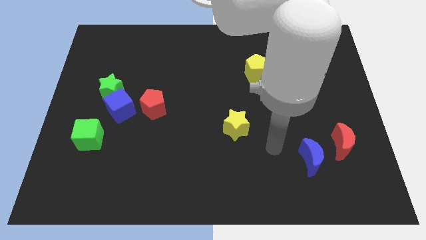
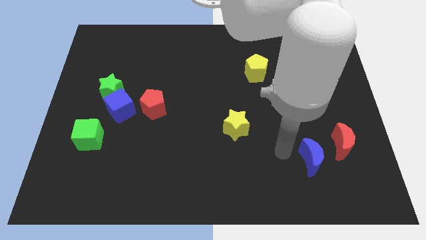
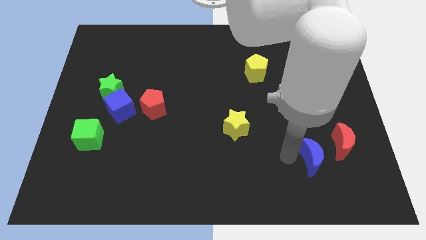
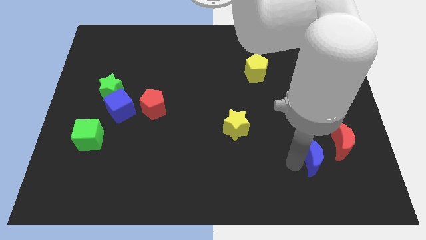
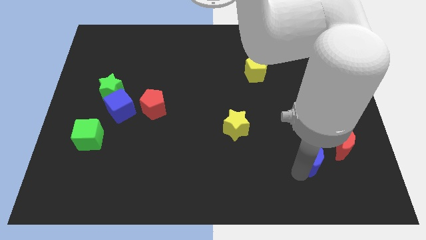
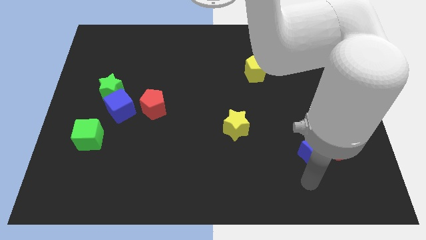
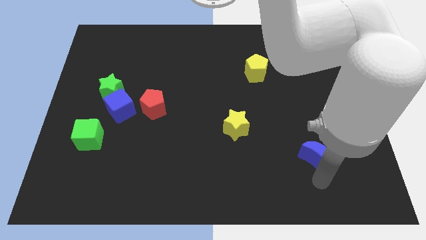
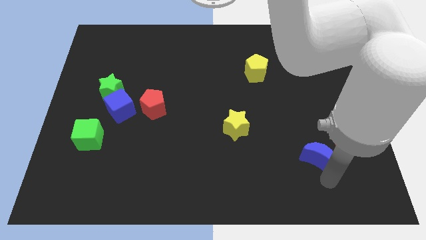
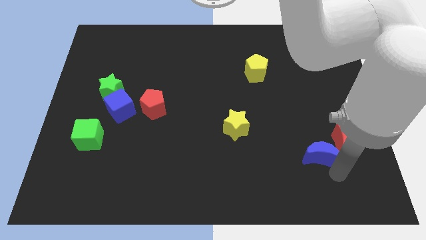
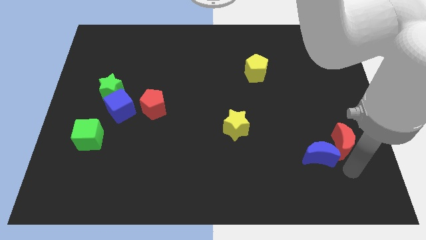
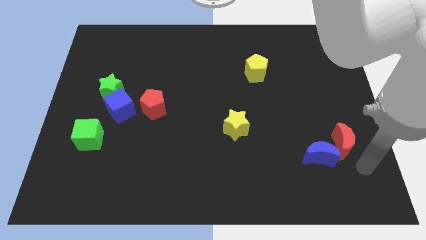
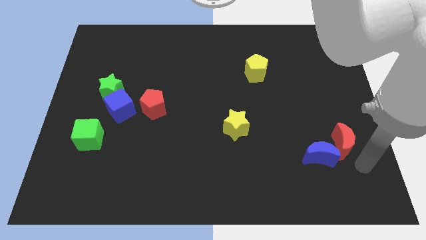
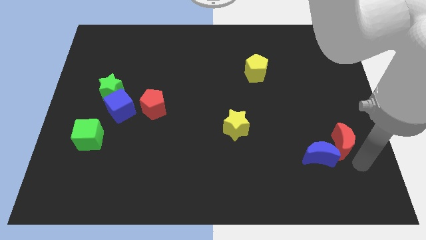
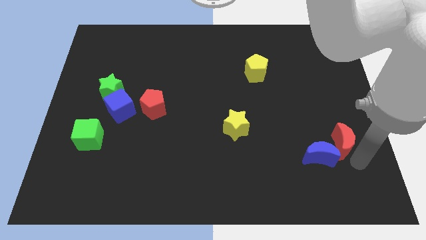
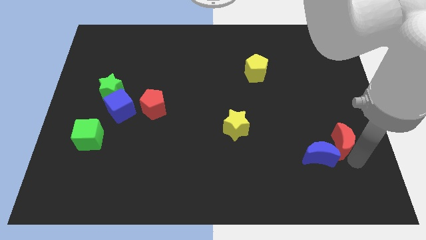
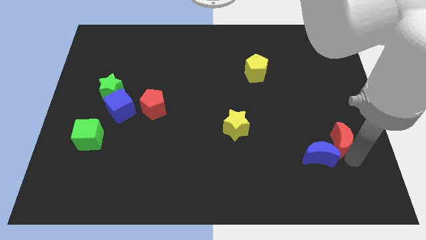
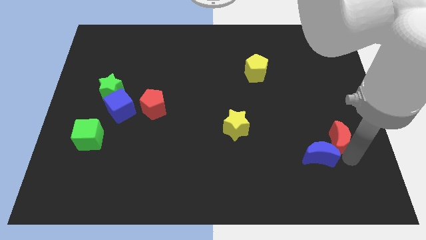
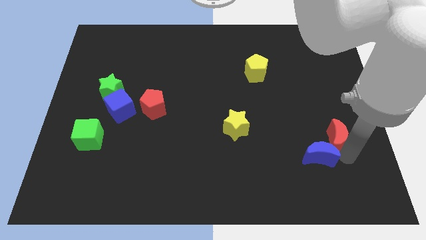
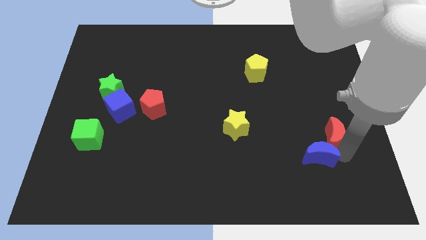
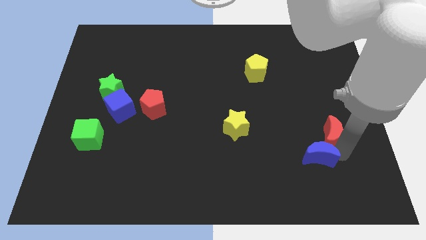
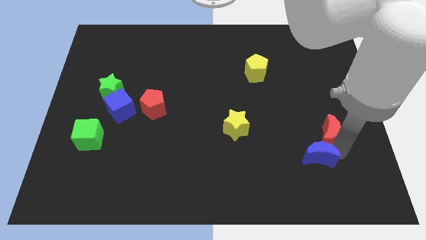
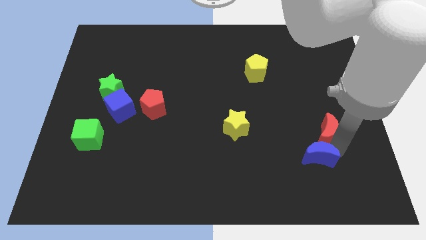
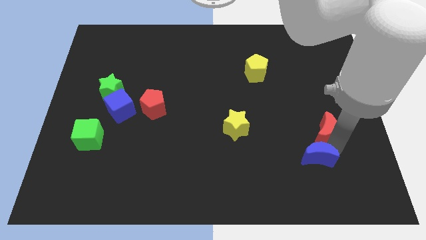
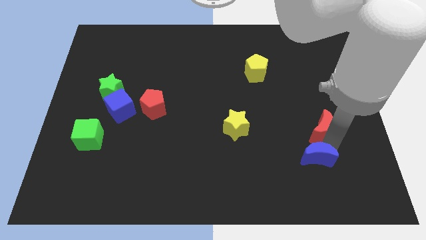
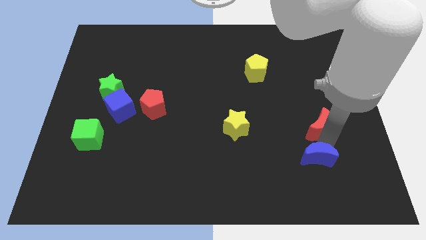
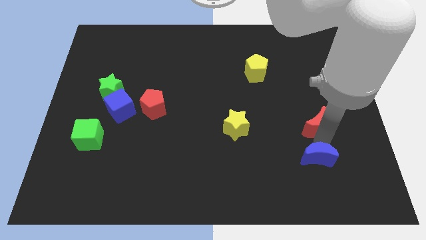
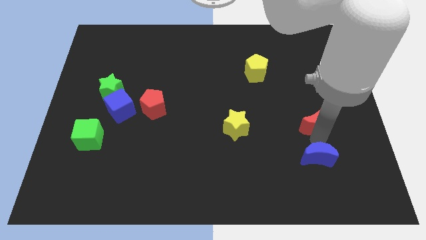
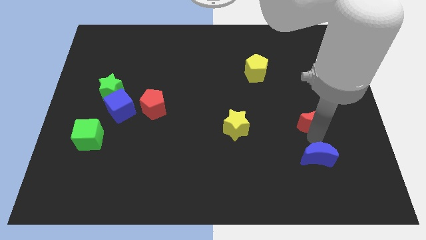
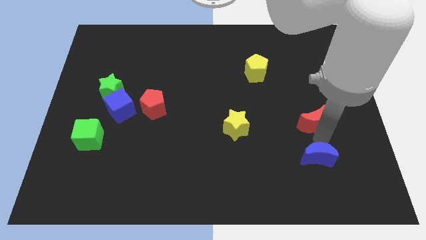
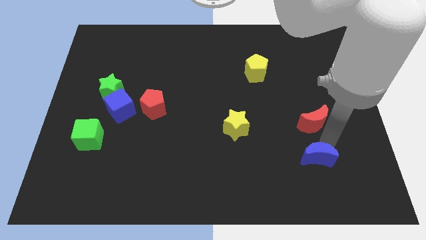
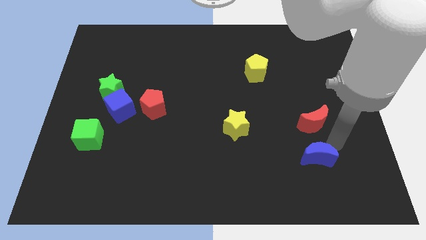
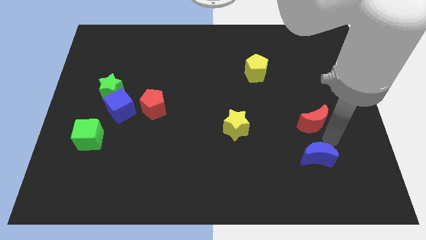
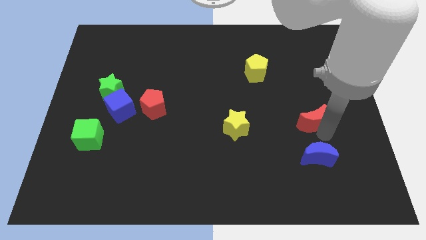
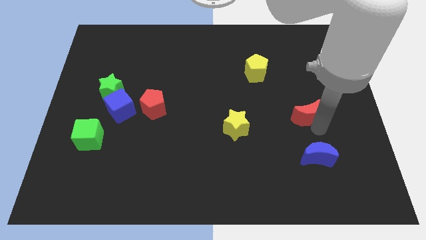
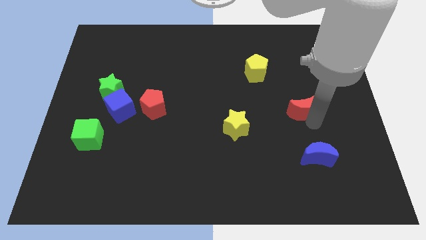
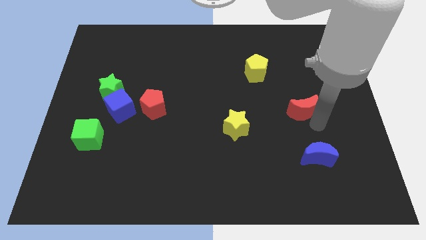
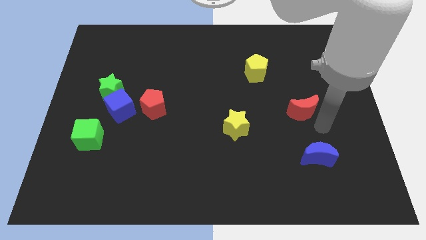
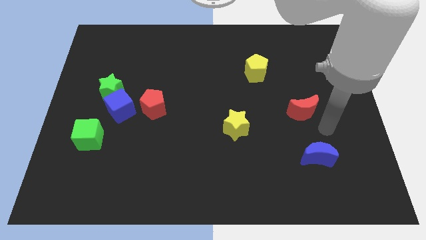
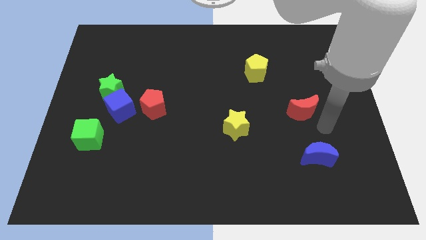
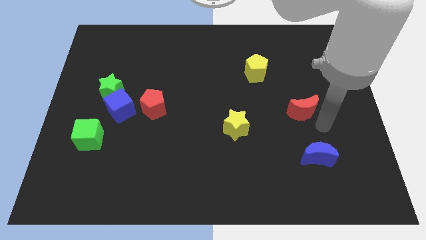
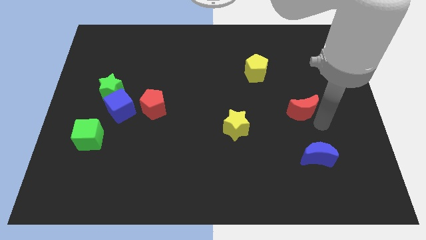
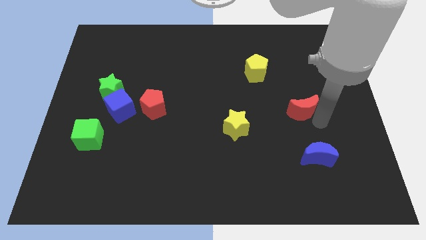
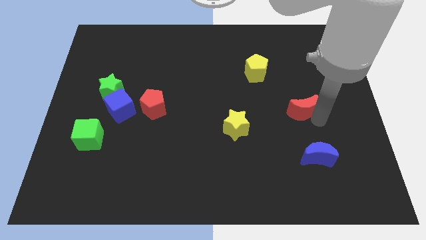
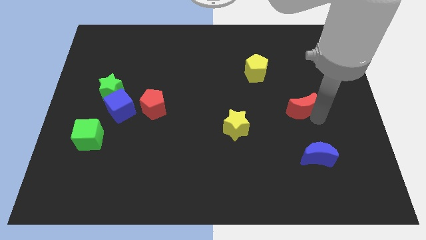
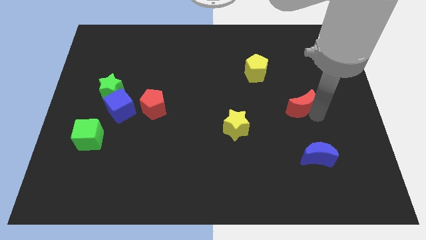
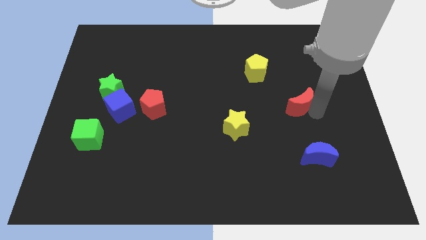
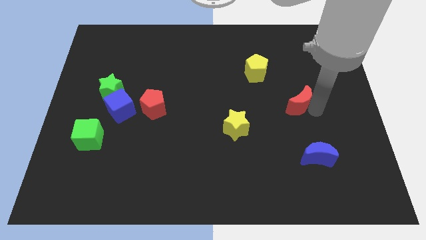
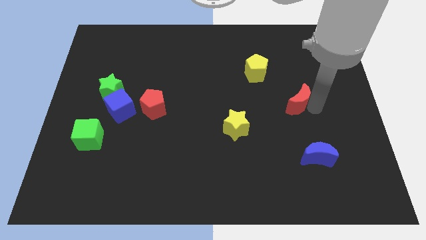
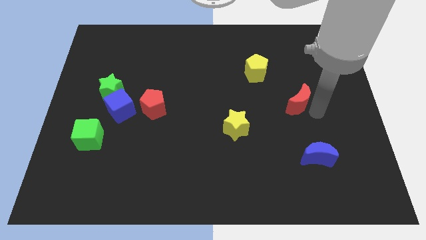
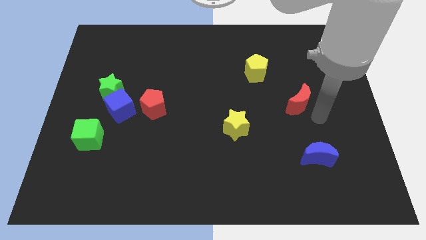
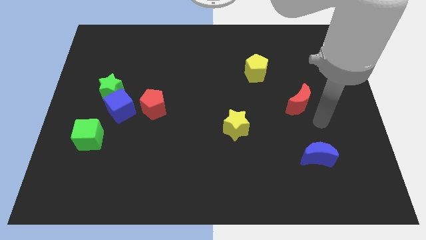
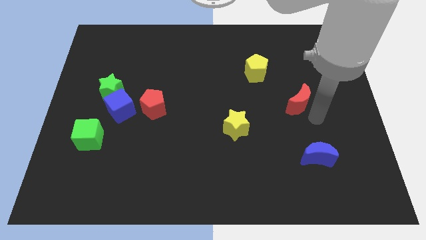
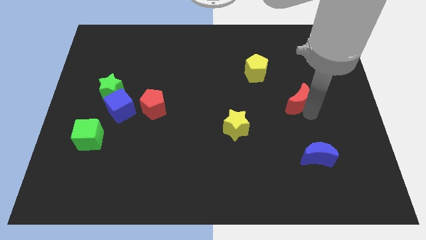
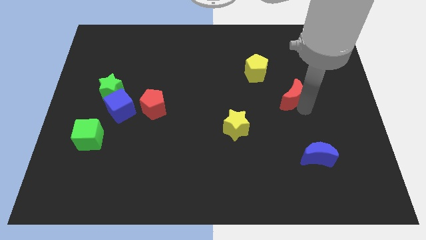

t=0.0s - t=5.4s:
put the red moon to the bottom right side of the yellow pentagon

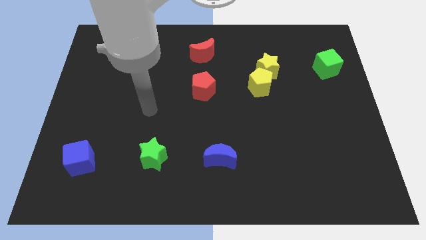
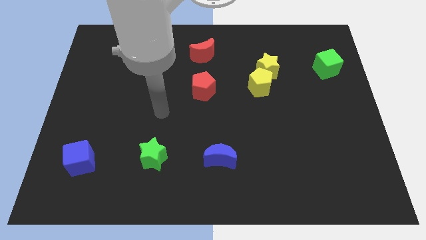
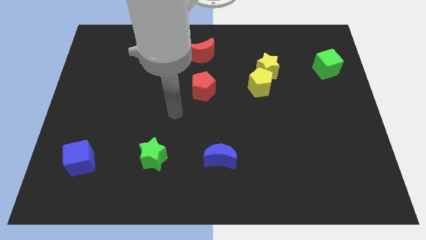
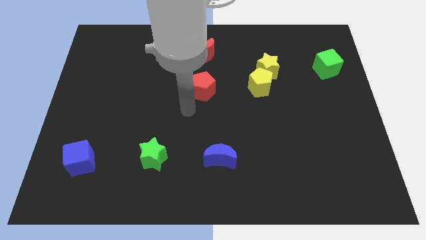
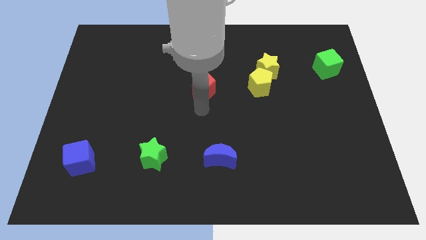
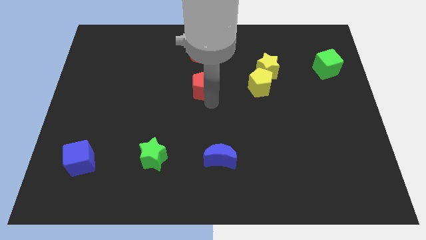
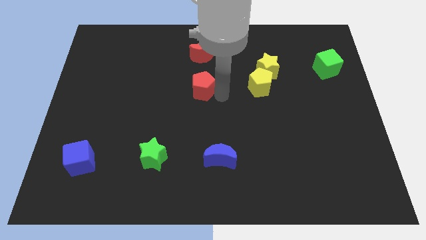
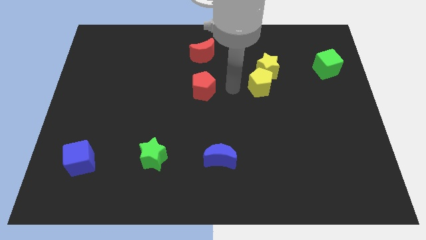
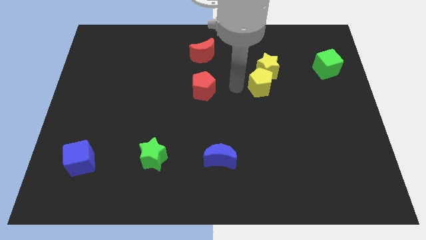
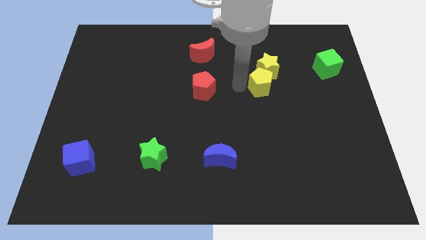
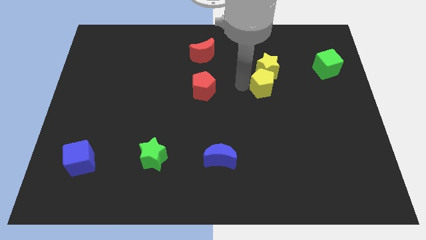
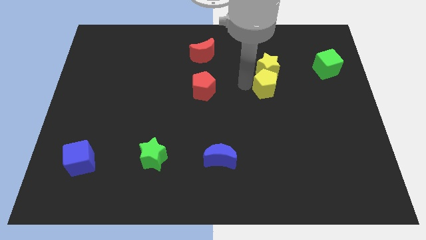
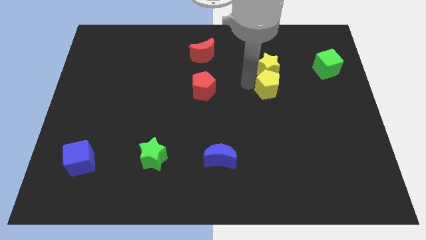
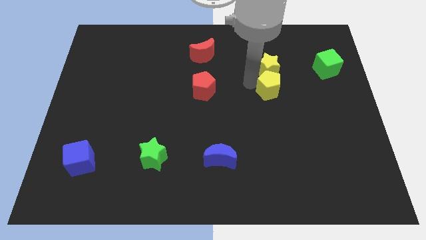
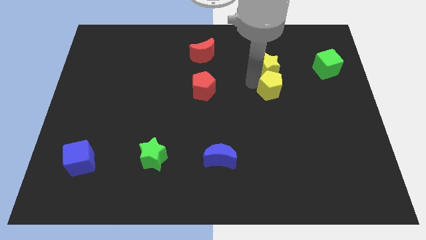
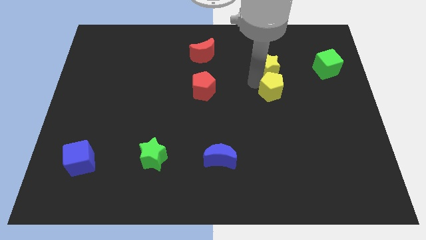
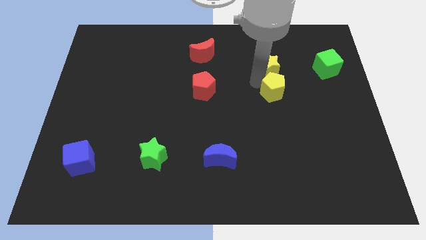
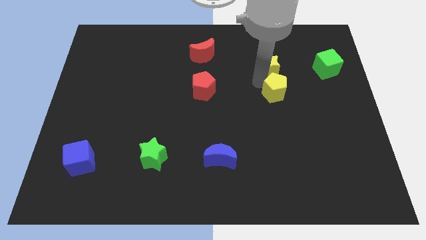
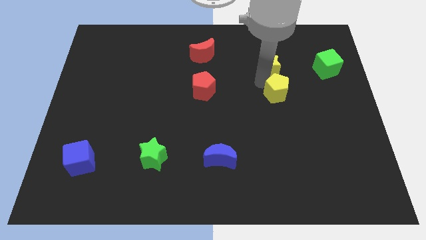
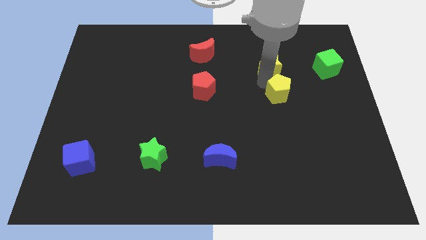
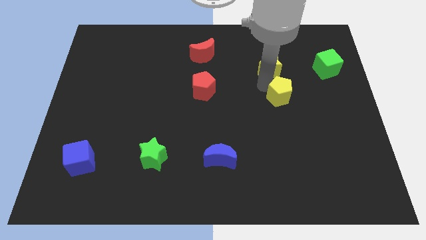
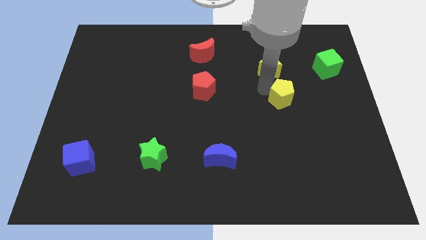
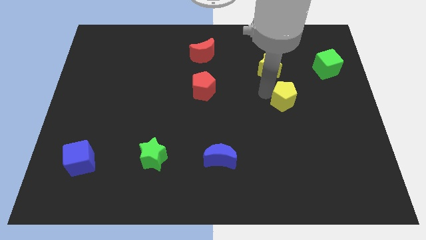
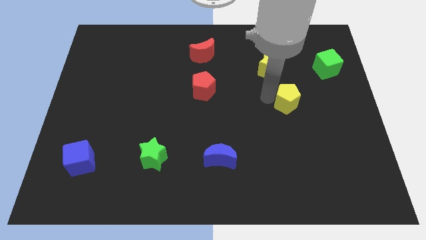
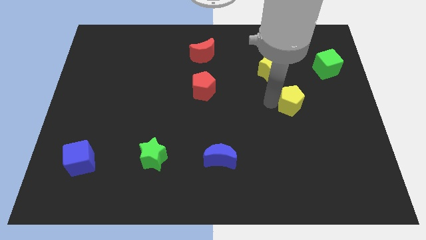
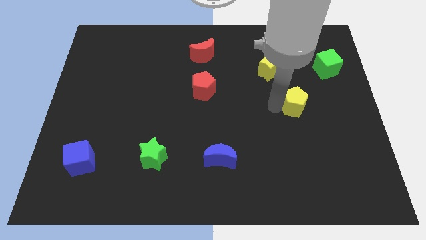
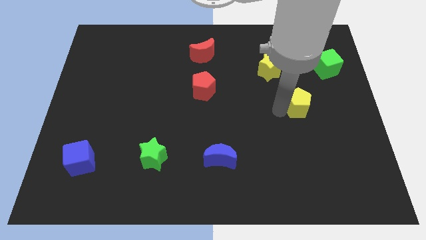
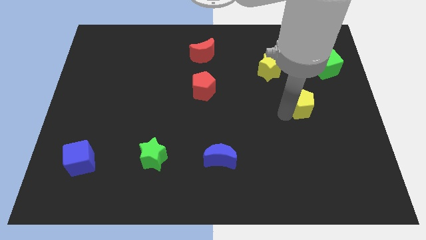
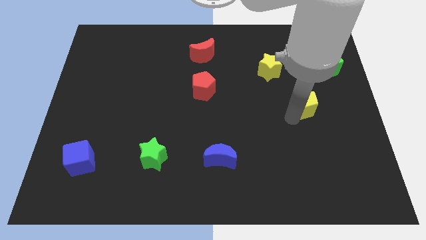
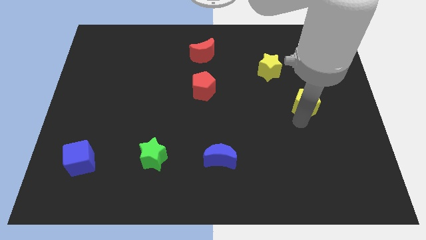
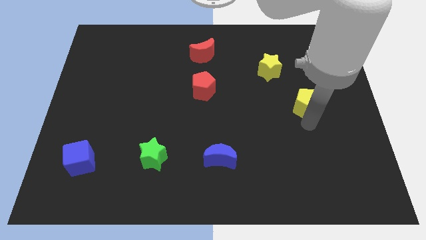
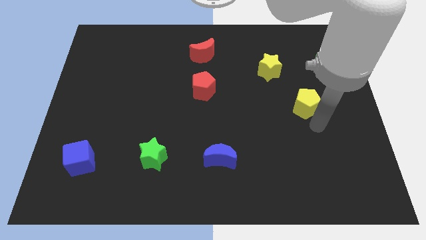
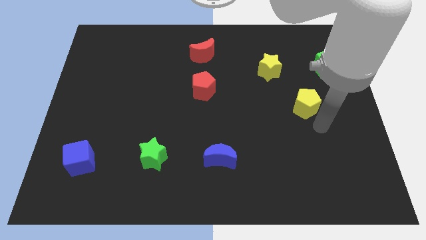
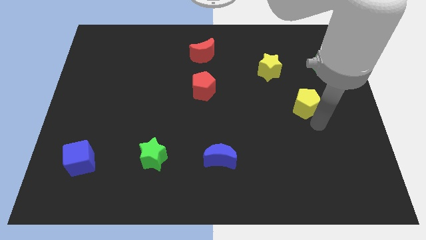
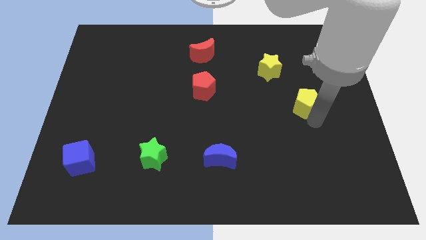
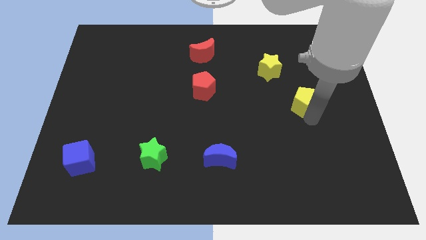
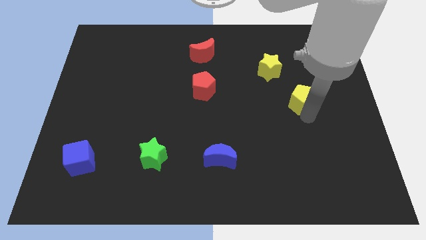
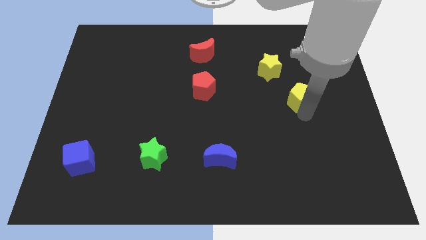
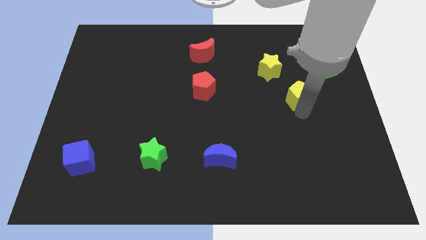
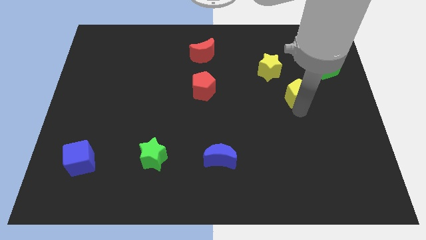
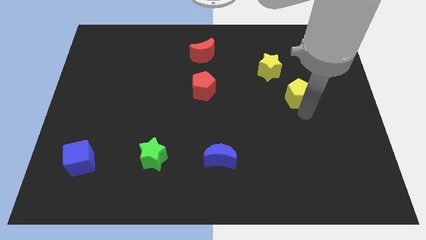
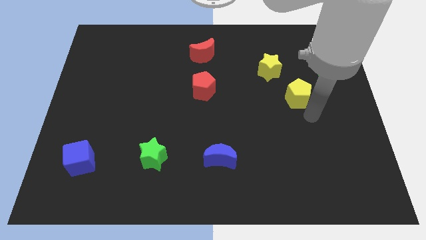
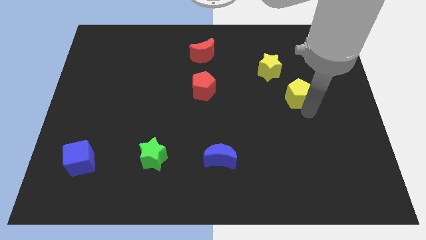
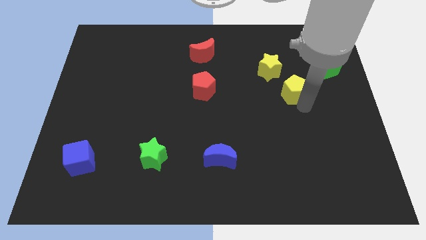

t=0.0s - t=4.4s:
put the yellow pentagon diagonally down and to the left of the green cube
